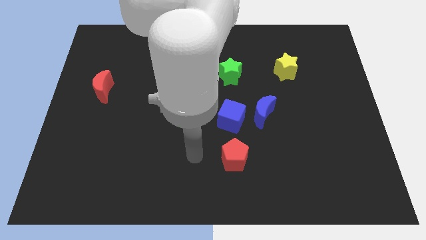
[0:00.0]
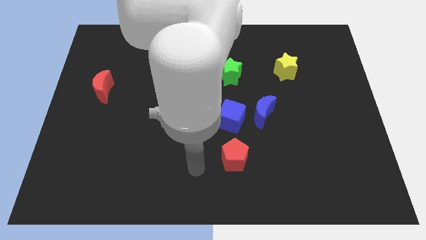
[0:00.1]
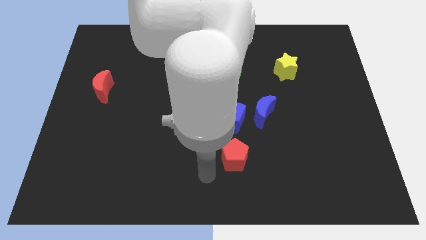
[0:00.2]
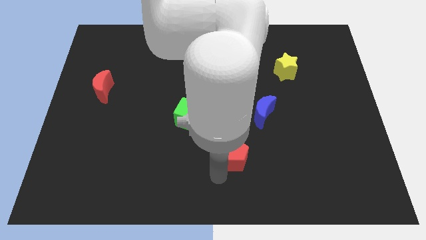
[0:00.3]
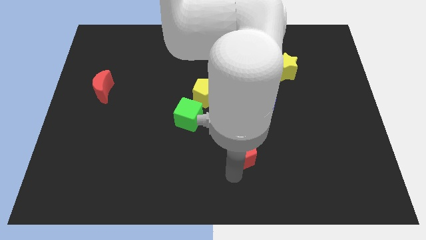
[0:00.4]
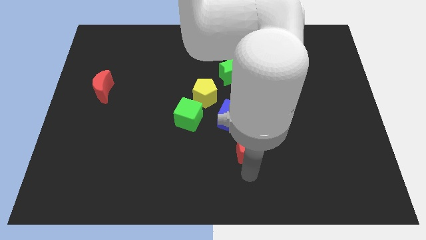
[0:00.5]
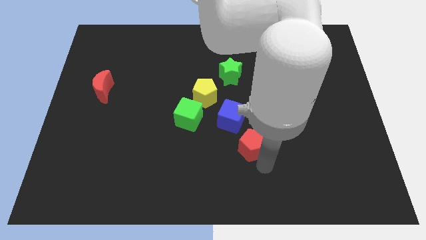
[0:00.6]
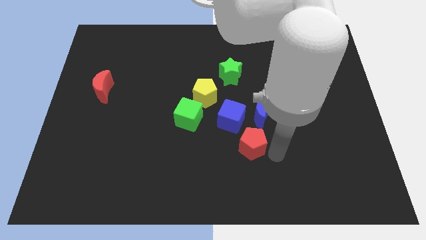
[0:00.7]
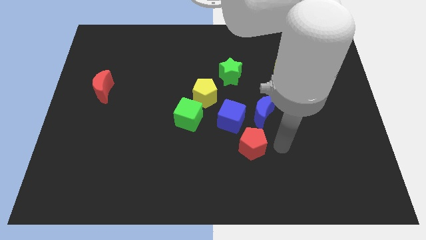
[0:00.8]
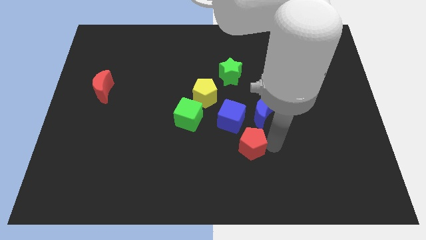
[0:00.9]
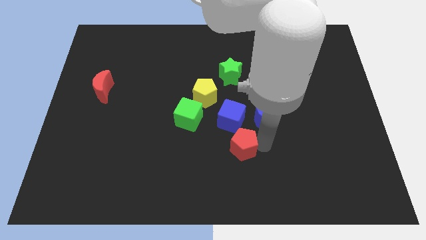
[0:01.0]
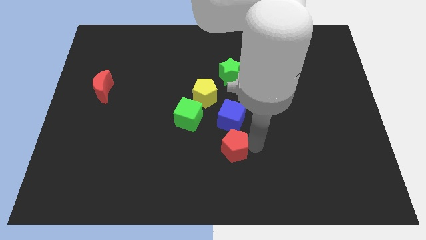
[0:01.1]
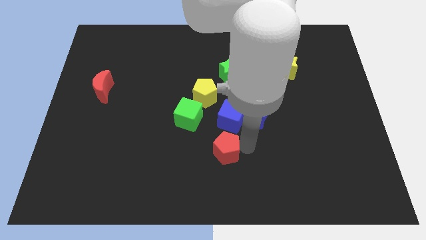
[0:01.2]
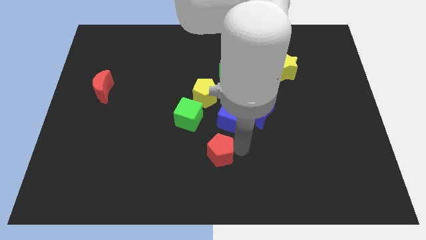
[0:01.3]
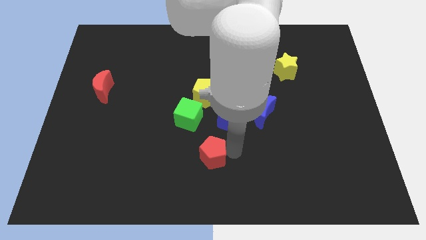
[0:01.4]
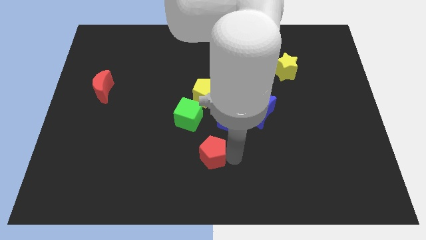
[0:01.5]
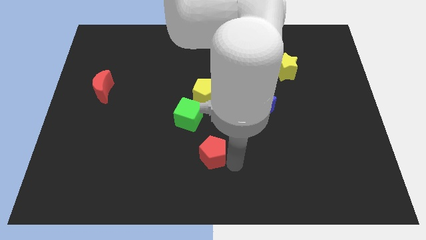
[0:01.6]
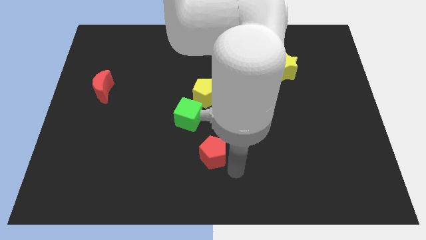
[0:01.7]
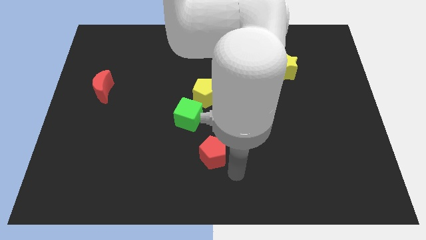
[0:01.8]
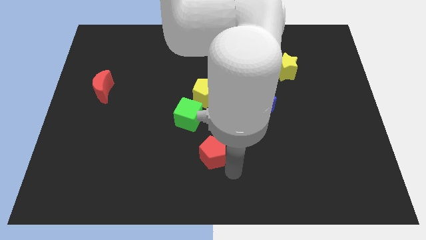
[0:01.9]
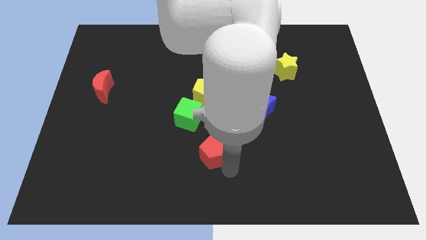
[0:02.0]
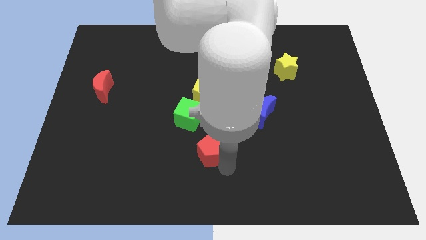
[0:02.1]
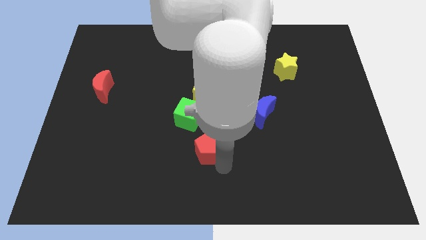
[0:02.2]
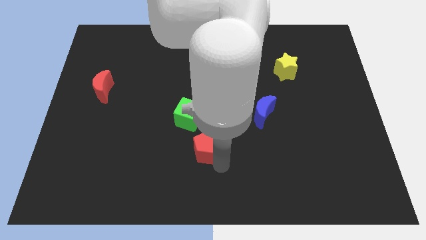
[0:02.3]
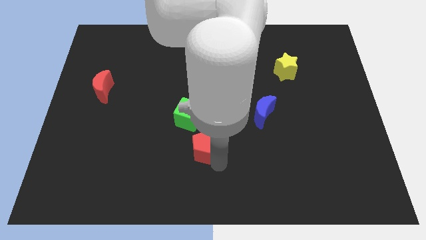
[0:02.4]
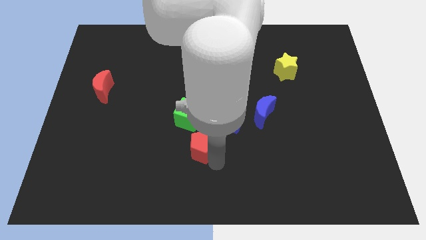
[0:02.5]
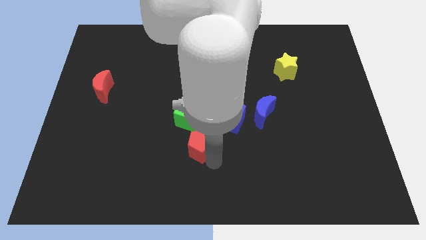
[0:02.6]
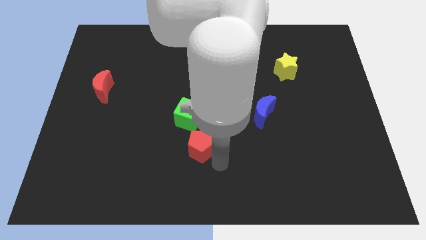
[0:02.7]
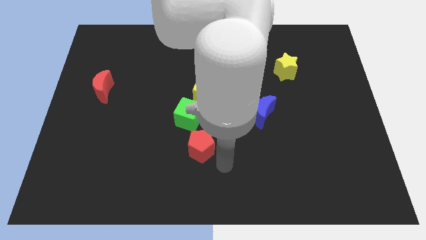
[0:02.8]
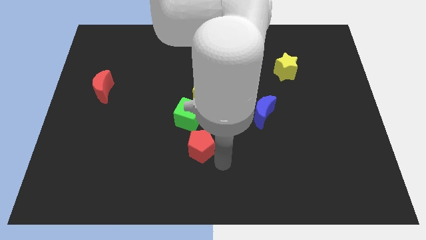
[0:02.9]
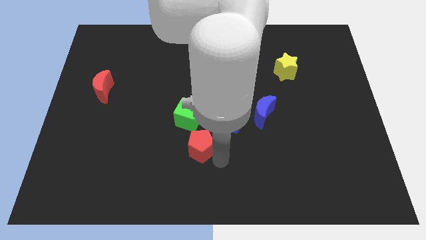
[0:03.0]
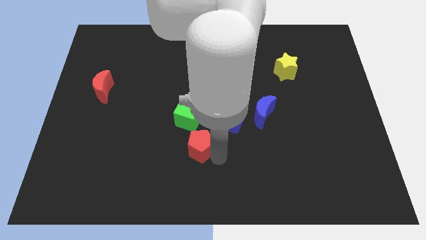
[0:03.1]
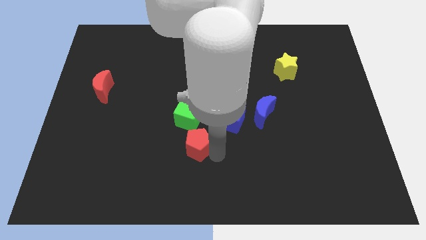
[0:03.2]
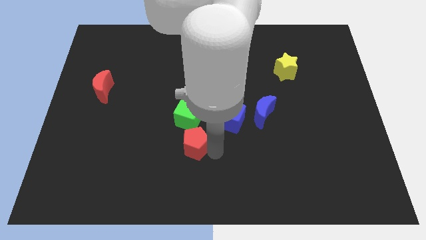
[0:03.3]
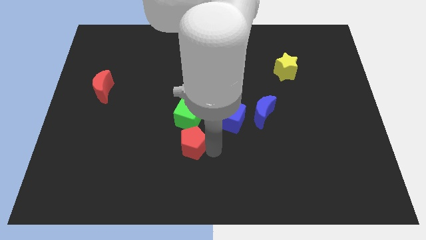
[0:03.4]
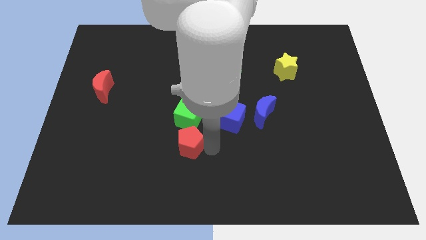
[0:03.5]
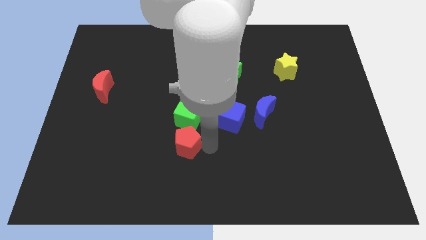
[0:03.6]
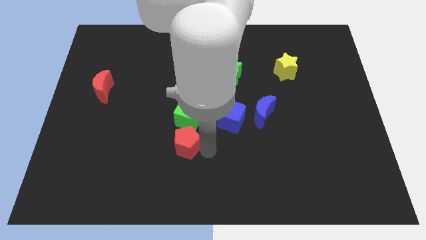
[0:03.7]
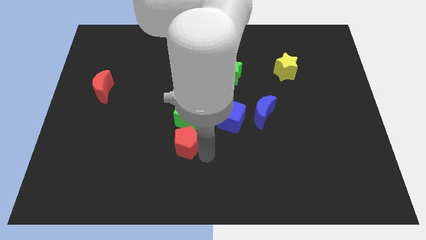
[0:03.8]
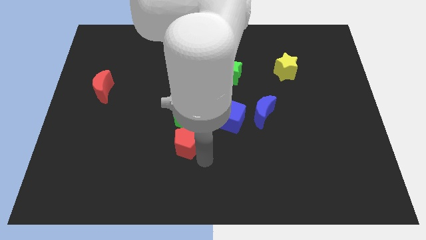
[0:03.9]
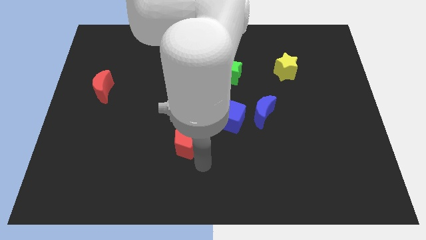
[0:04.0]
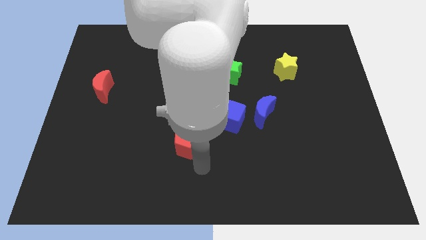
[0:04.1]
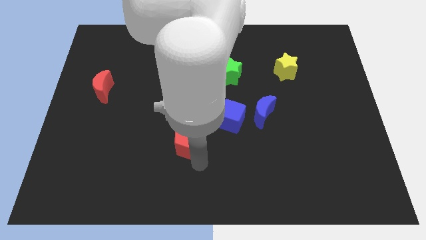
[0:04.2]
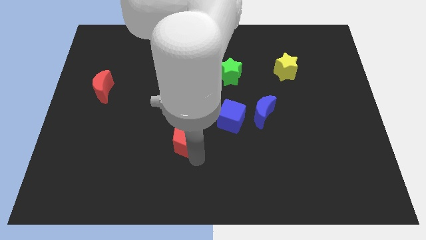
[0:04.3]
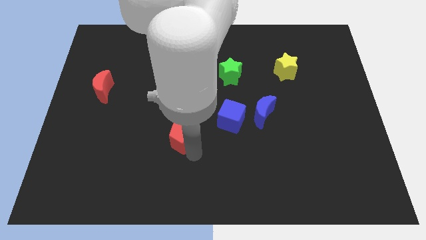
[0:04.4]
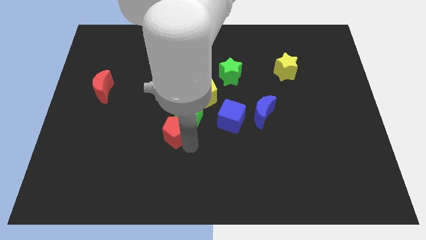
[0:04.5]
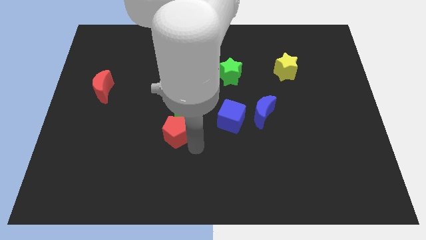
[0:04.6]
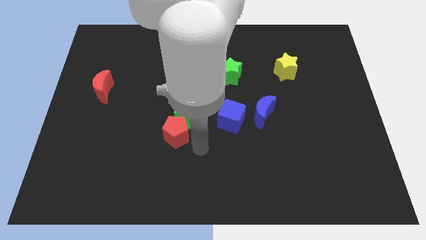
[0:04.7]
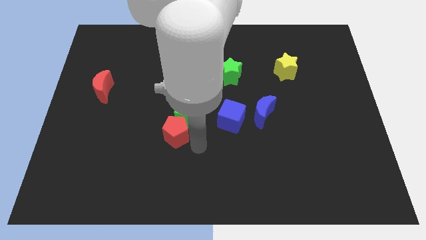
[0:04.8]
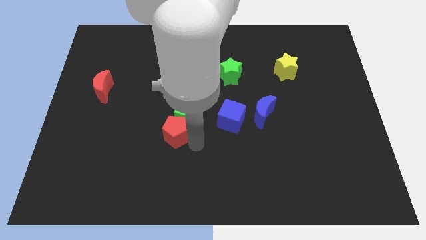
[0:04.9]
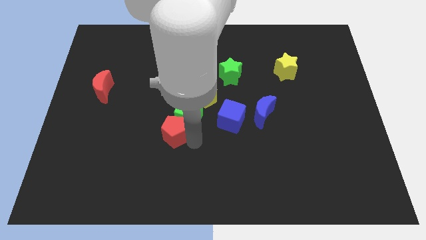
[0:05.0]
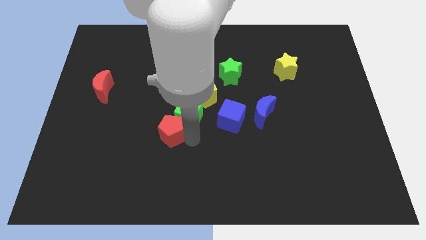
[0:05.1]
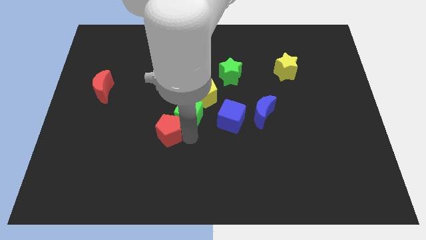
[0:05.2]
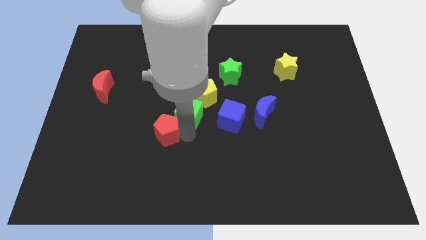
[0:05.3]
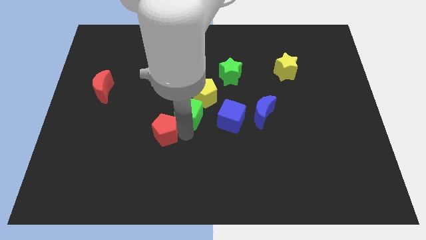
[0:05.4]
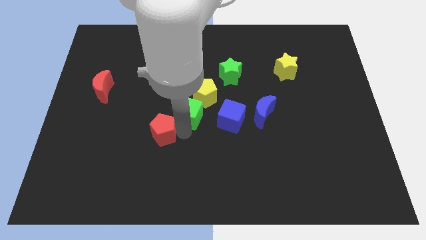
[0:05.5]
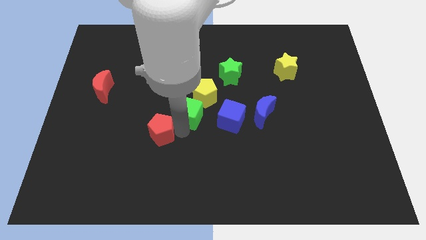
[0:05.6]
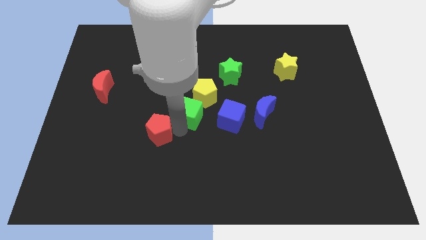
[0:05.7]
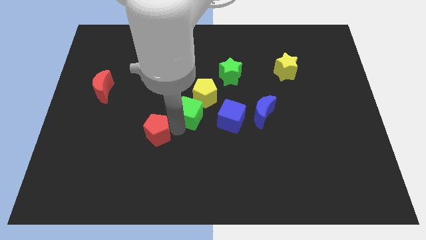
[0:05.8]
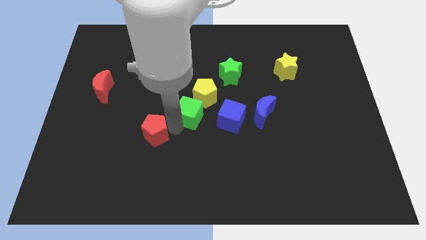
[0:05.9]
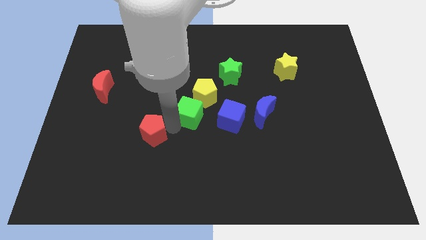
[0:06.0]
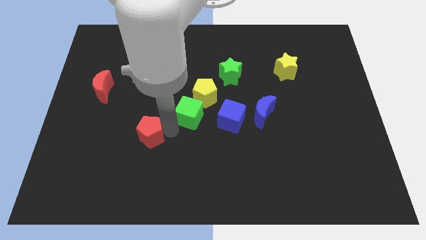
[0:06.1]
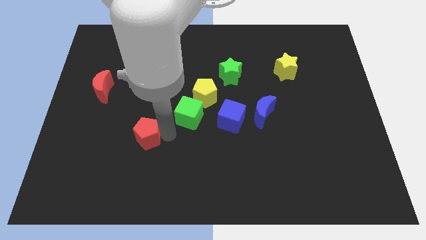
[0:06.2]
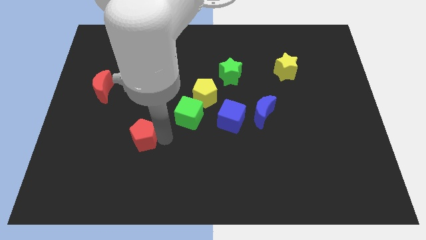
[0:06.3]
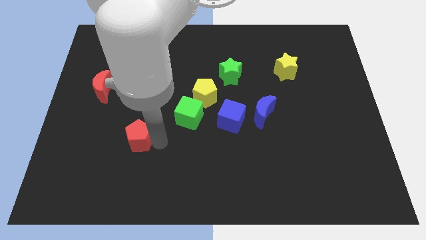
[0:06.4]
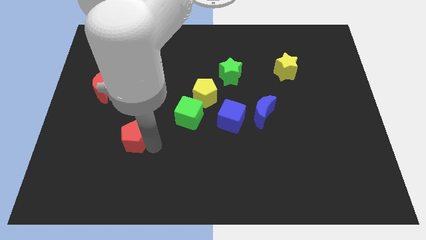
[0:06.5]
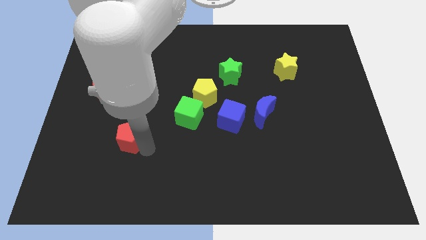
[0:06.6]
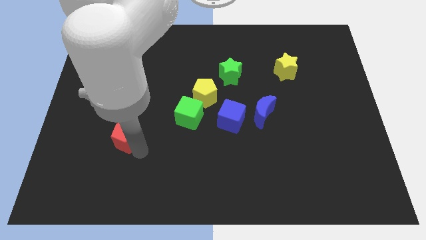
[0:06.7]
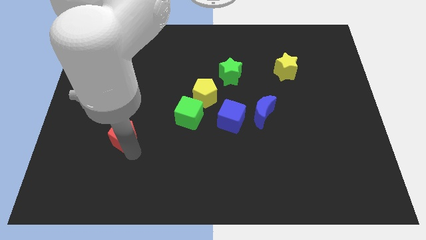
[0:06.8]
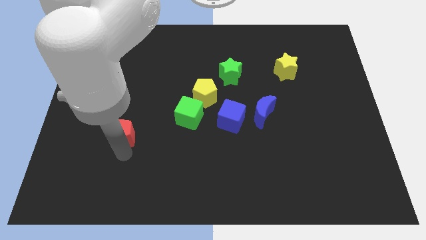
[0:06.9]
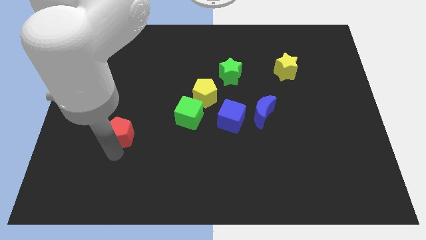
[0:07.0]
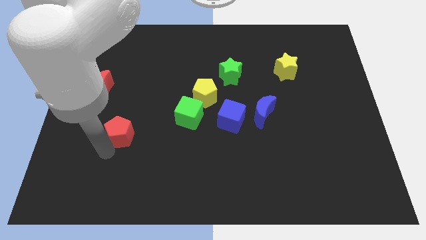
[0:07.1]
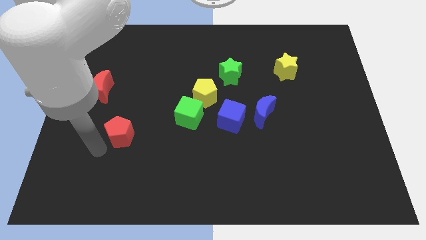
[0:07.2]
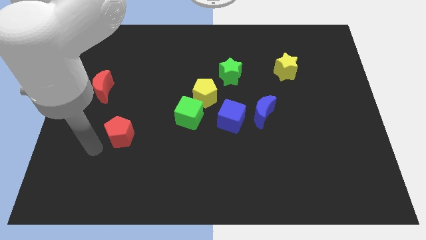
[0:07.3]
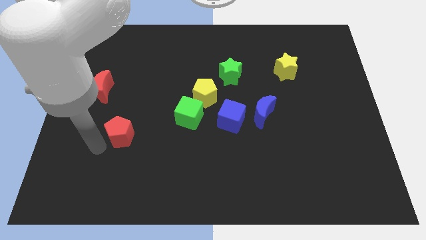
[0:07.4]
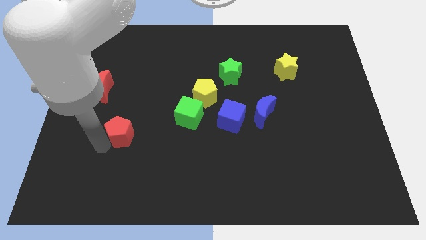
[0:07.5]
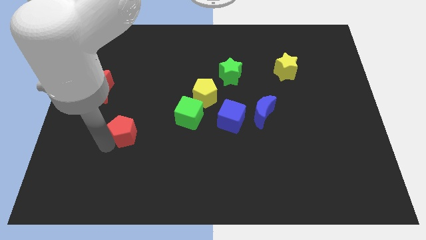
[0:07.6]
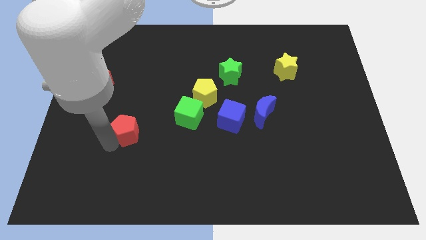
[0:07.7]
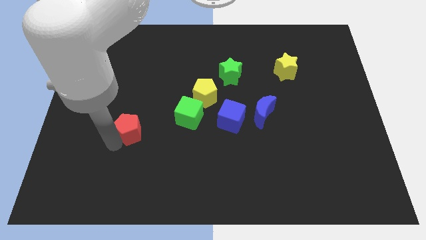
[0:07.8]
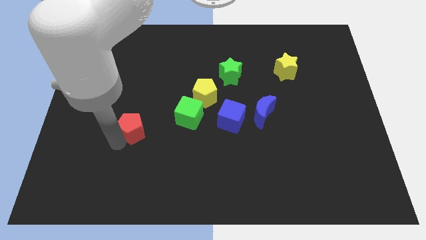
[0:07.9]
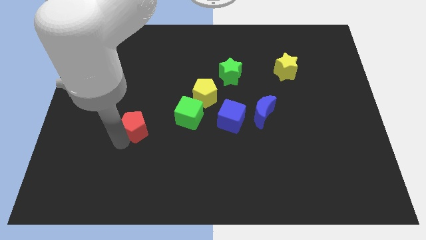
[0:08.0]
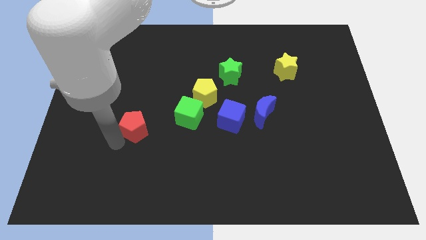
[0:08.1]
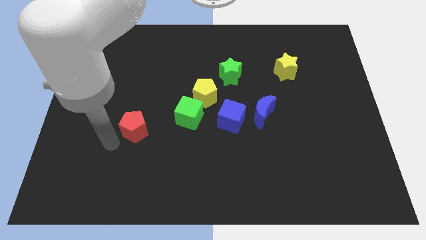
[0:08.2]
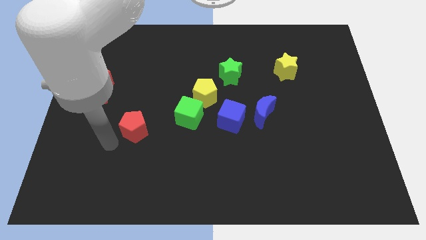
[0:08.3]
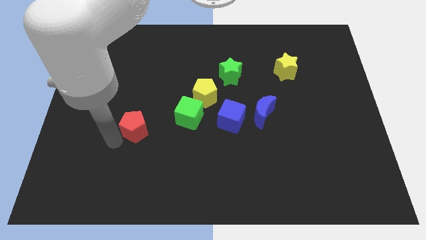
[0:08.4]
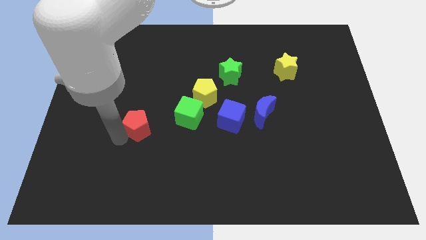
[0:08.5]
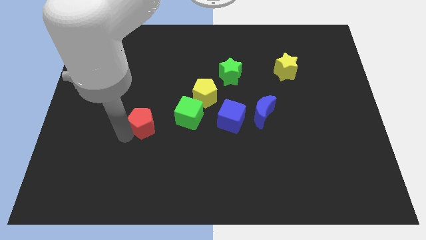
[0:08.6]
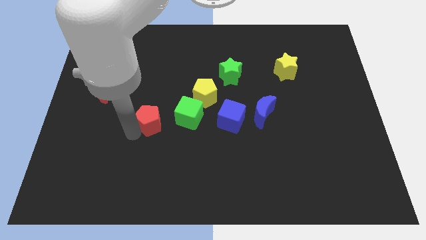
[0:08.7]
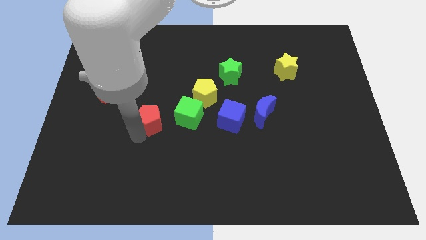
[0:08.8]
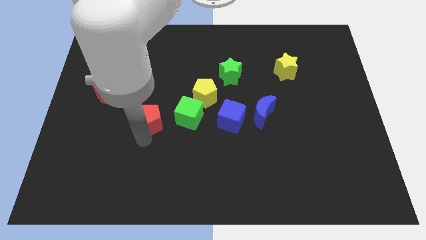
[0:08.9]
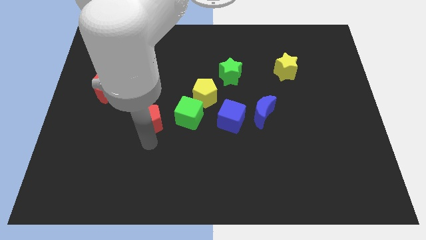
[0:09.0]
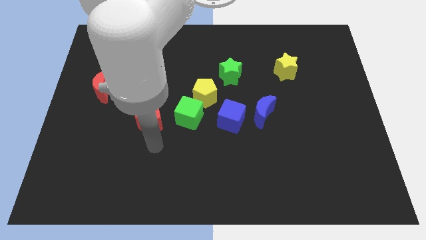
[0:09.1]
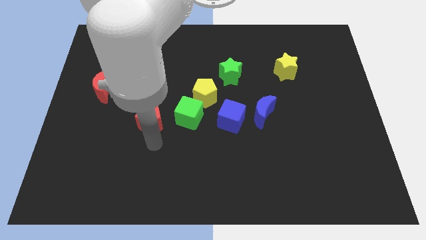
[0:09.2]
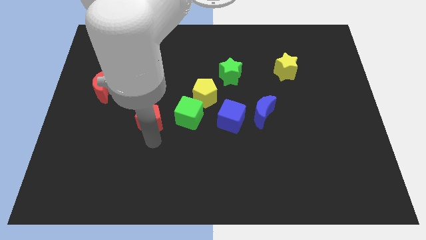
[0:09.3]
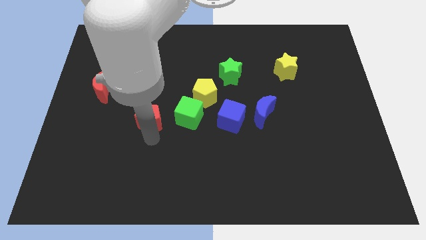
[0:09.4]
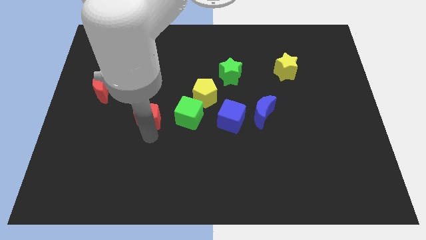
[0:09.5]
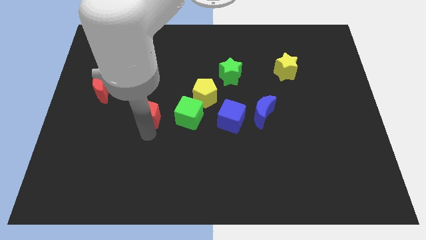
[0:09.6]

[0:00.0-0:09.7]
push the red pentagon up and left diagonally
